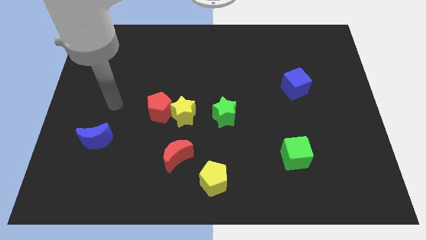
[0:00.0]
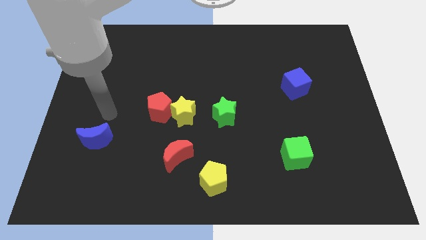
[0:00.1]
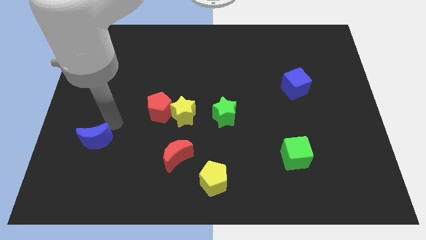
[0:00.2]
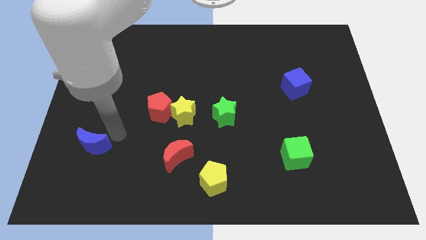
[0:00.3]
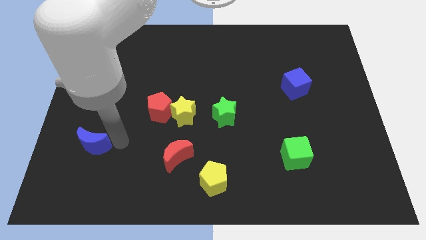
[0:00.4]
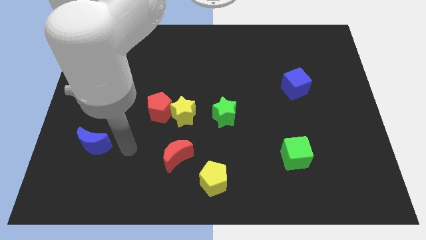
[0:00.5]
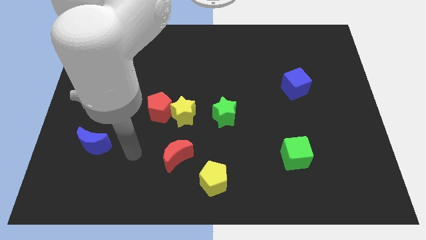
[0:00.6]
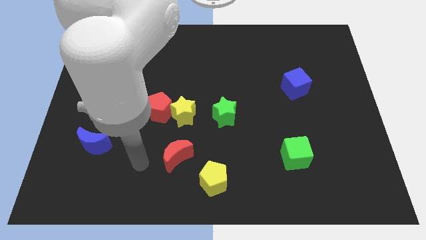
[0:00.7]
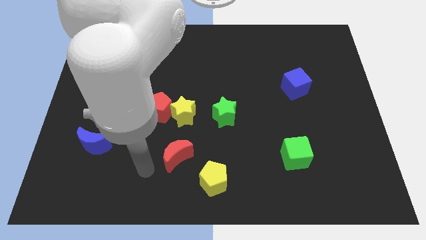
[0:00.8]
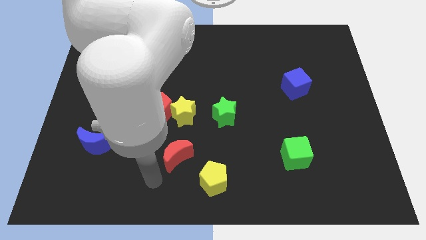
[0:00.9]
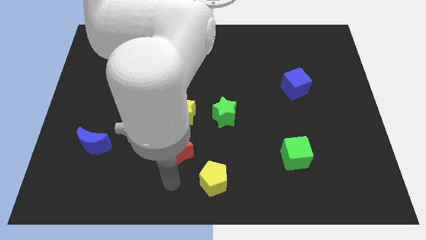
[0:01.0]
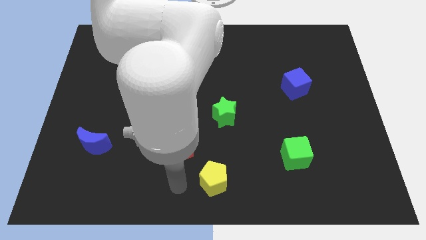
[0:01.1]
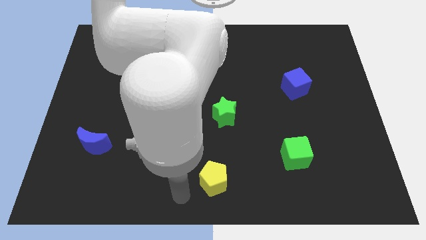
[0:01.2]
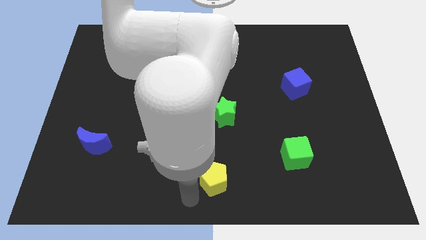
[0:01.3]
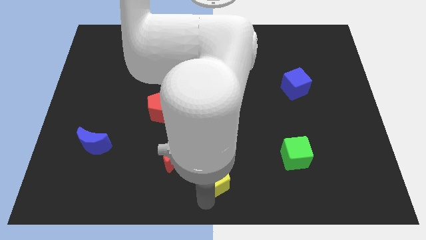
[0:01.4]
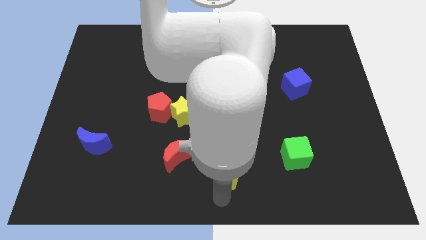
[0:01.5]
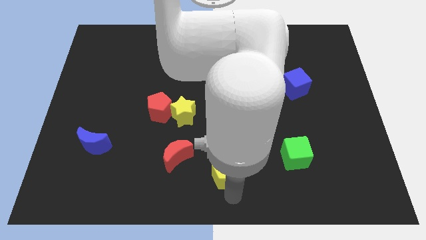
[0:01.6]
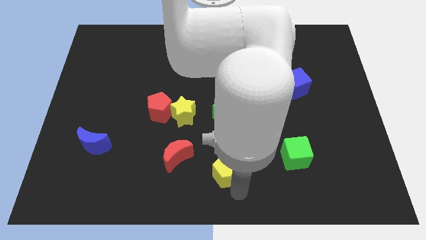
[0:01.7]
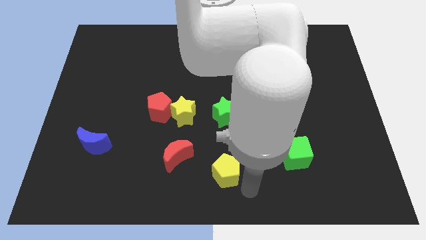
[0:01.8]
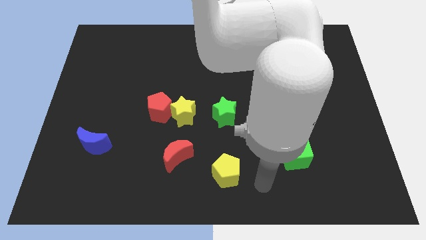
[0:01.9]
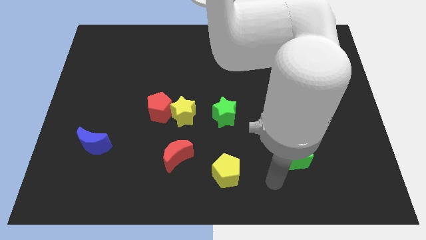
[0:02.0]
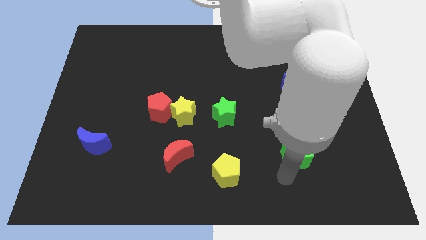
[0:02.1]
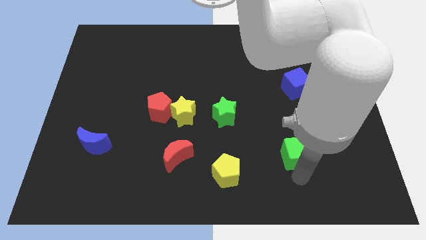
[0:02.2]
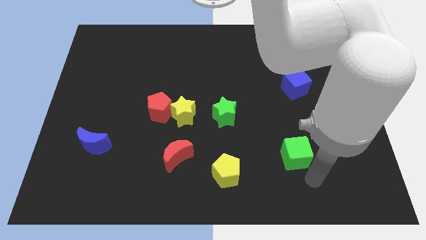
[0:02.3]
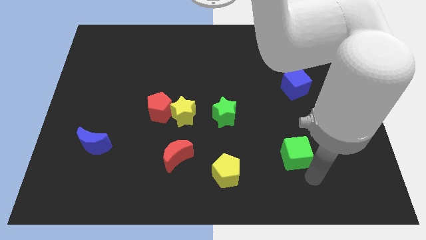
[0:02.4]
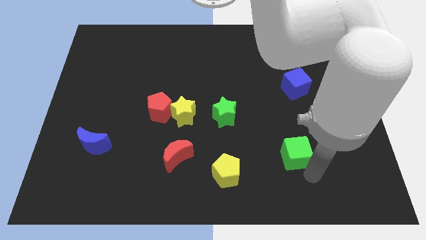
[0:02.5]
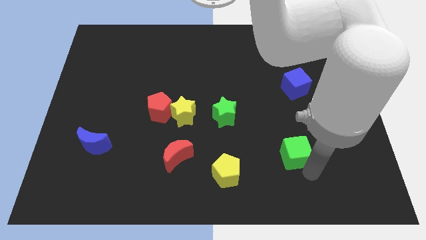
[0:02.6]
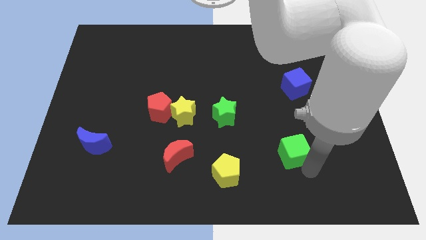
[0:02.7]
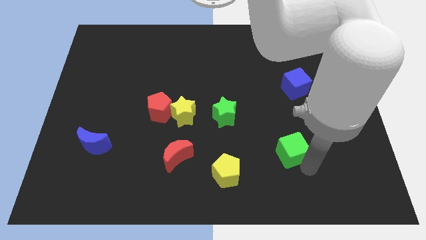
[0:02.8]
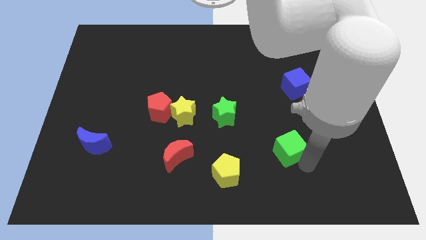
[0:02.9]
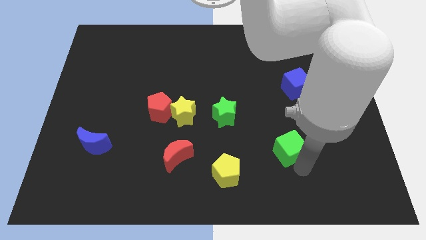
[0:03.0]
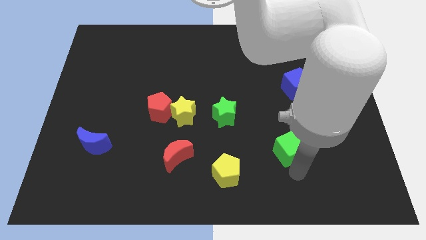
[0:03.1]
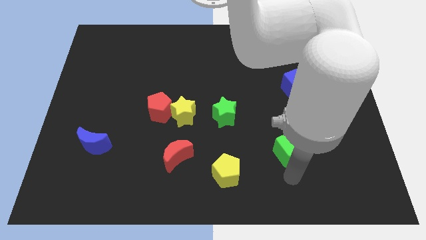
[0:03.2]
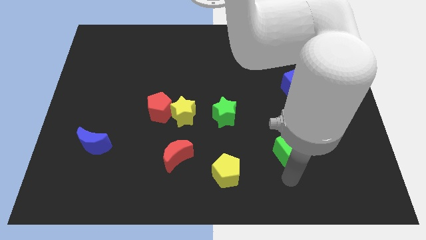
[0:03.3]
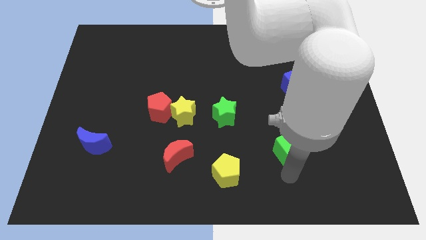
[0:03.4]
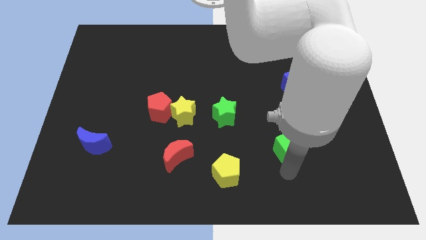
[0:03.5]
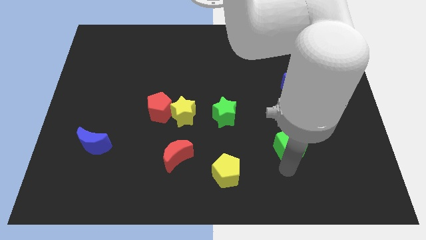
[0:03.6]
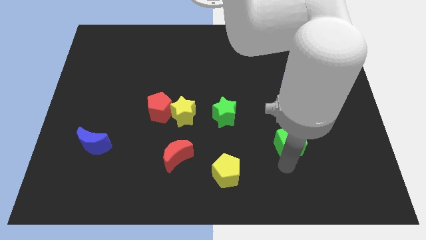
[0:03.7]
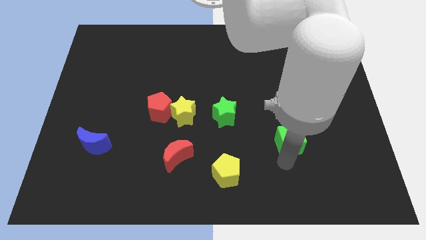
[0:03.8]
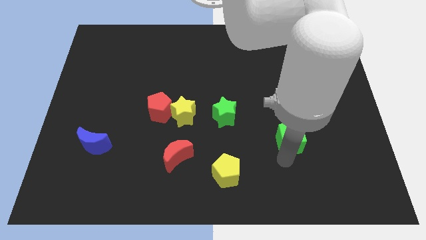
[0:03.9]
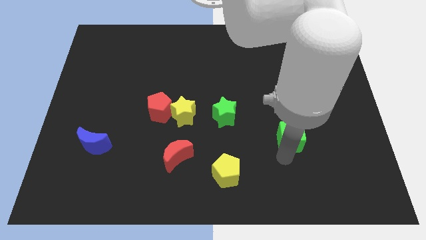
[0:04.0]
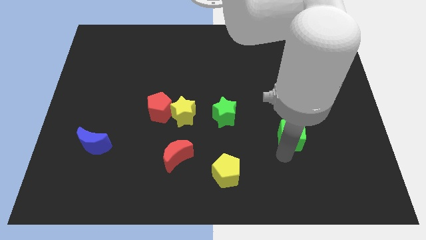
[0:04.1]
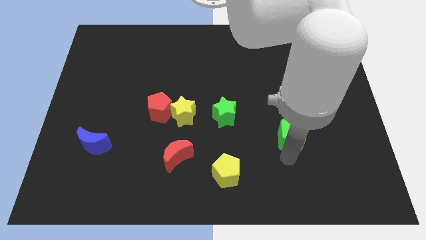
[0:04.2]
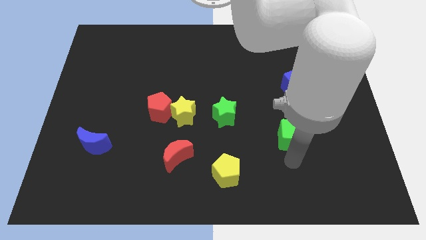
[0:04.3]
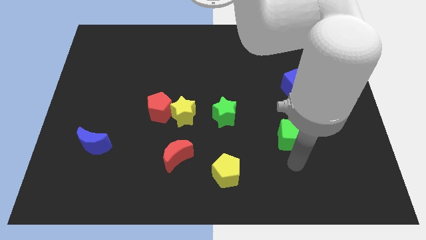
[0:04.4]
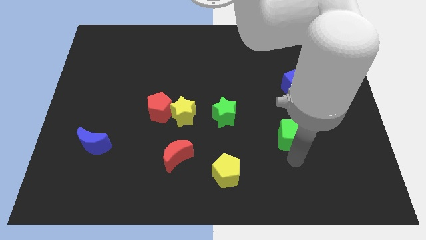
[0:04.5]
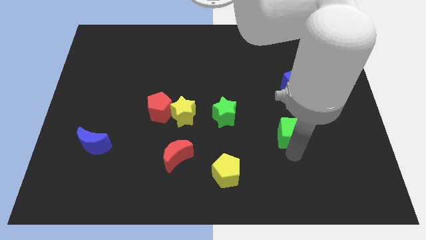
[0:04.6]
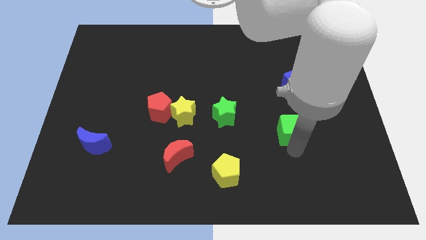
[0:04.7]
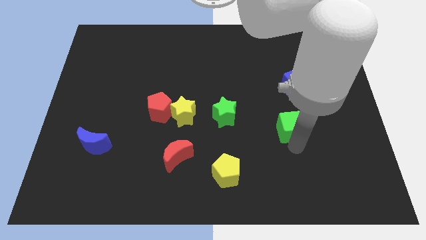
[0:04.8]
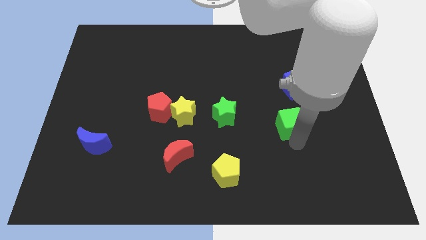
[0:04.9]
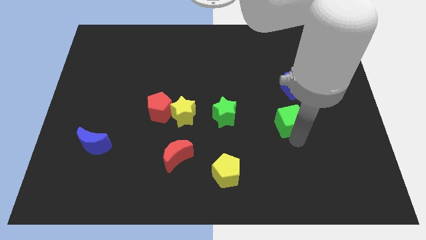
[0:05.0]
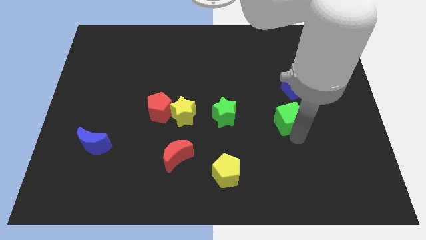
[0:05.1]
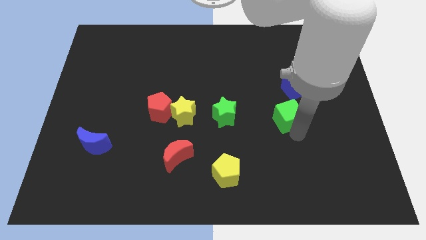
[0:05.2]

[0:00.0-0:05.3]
slide the green cube to the bottom left of the blue cube

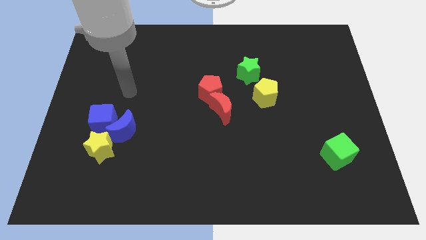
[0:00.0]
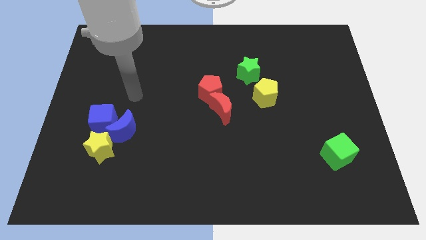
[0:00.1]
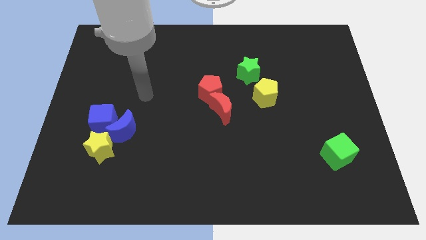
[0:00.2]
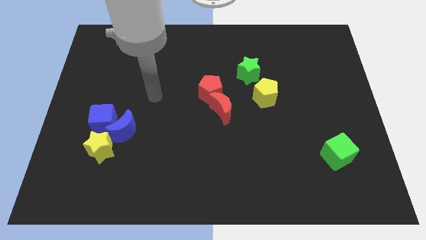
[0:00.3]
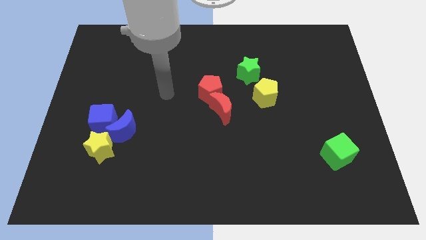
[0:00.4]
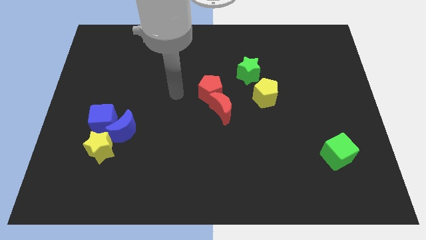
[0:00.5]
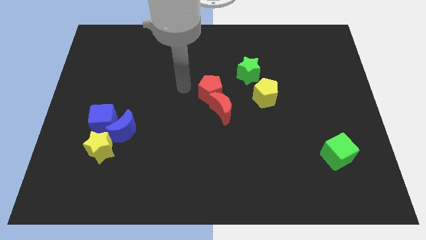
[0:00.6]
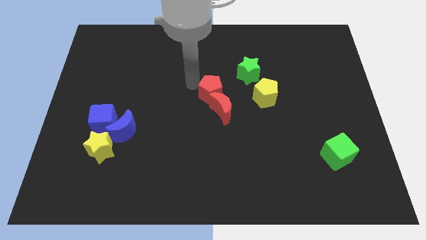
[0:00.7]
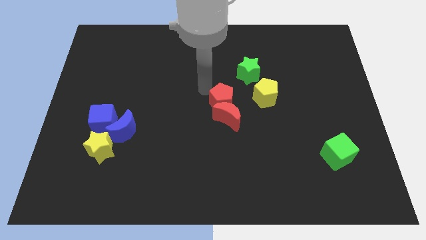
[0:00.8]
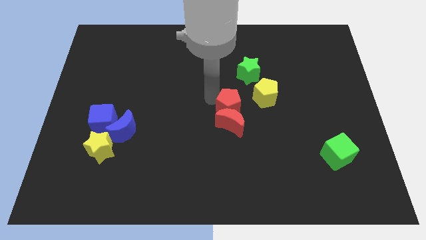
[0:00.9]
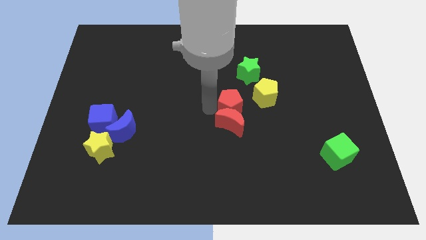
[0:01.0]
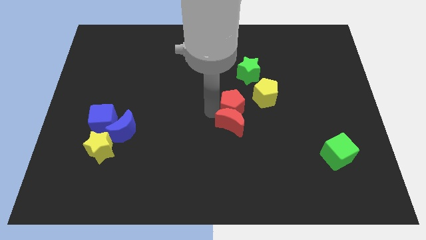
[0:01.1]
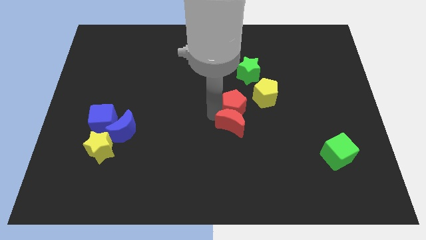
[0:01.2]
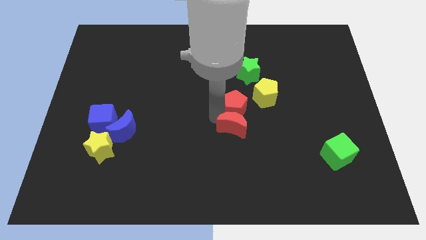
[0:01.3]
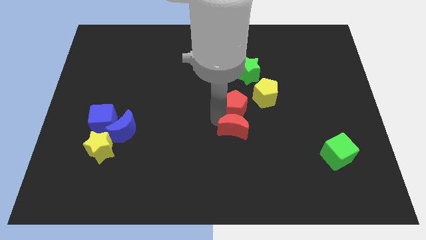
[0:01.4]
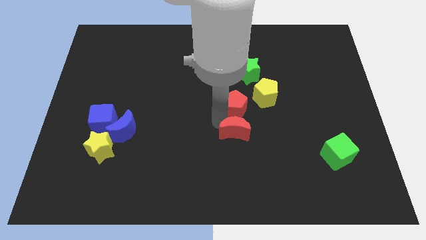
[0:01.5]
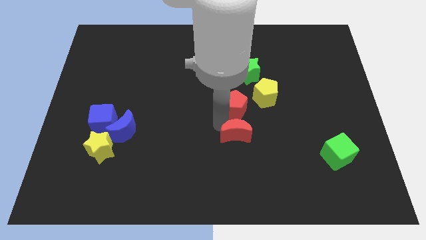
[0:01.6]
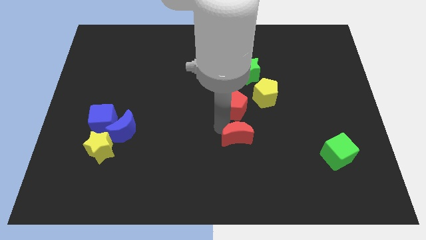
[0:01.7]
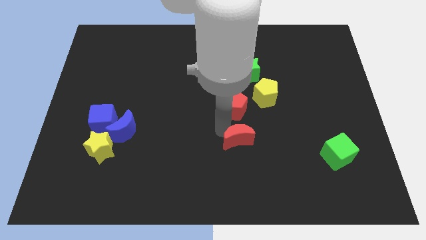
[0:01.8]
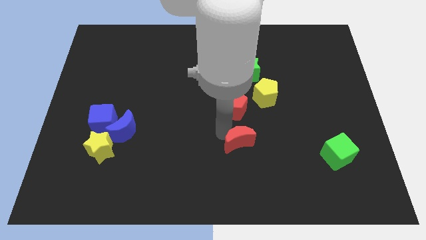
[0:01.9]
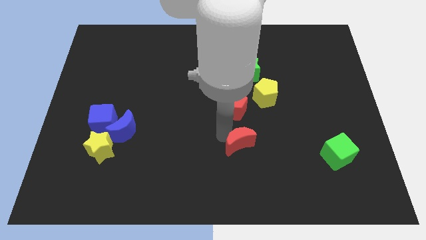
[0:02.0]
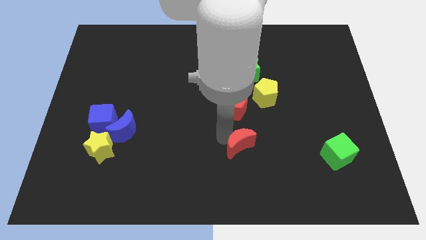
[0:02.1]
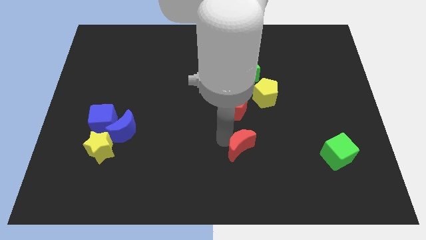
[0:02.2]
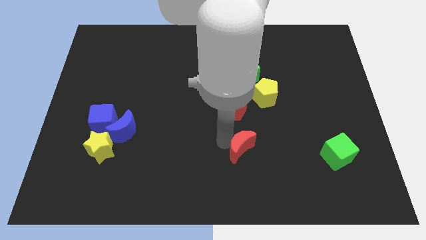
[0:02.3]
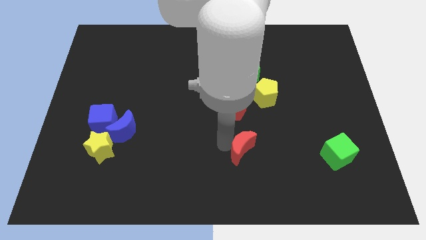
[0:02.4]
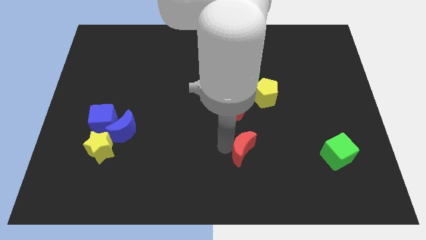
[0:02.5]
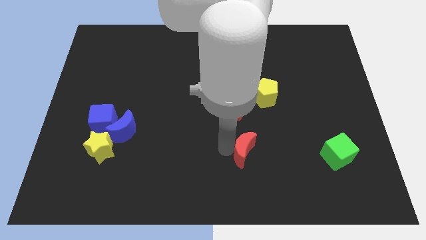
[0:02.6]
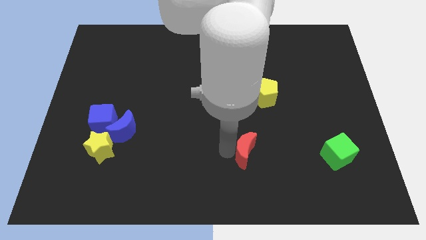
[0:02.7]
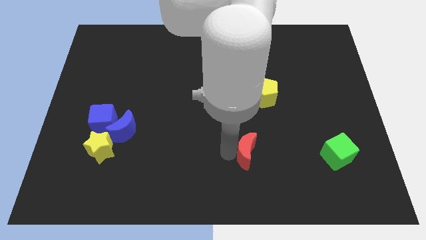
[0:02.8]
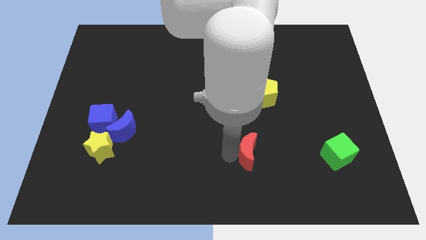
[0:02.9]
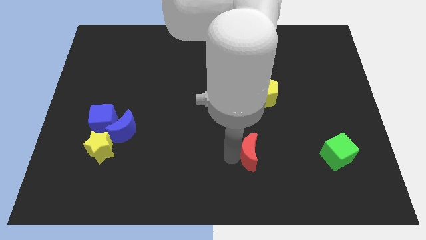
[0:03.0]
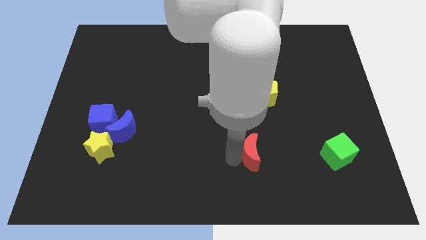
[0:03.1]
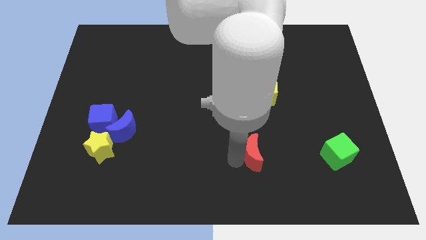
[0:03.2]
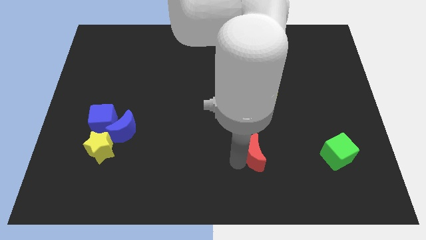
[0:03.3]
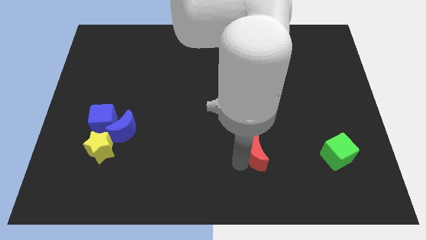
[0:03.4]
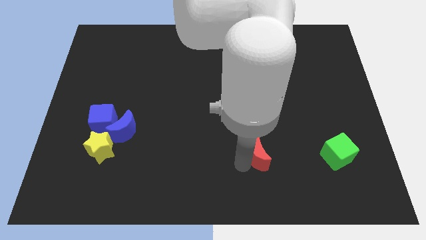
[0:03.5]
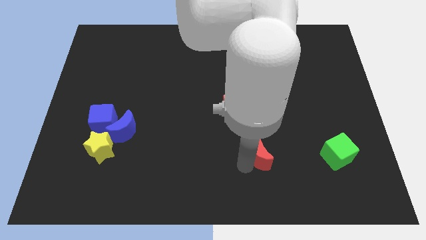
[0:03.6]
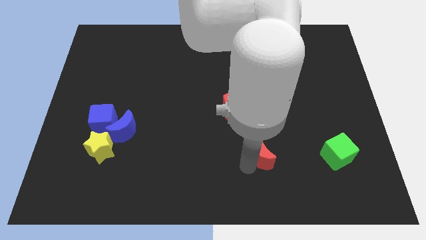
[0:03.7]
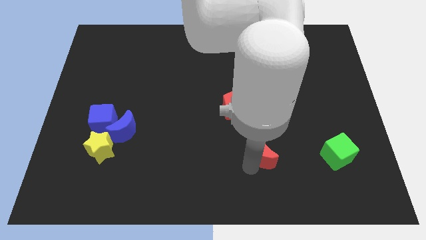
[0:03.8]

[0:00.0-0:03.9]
slide the red moon to the left of the green cube
